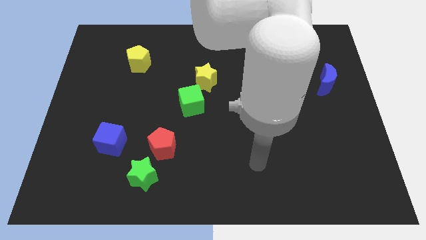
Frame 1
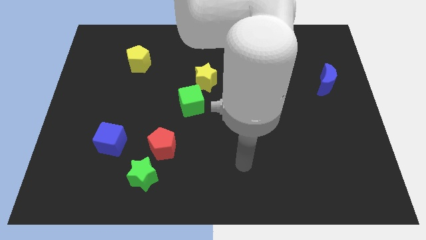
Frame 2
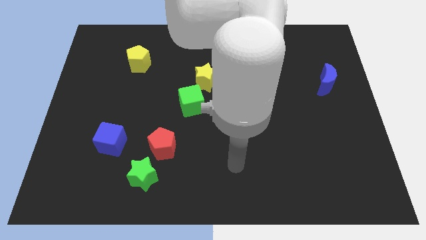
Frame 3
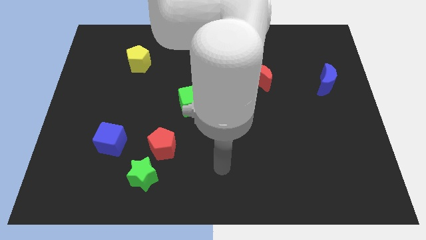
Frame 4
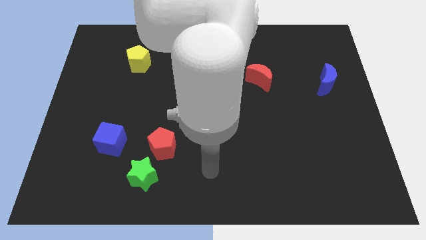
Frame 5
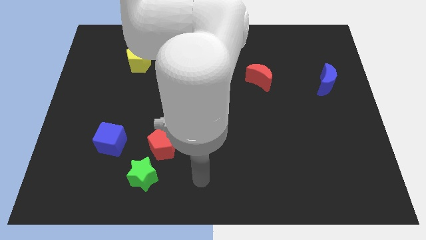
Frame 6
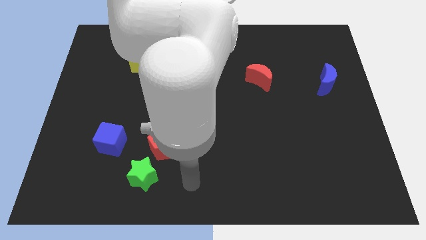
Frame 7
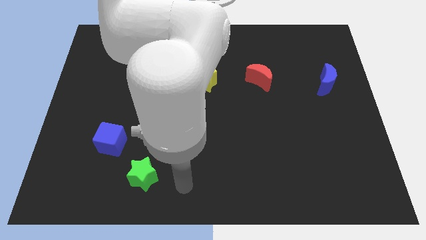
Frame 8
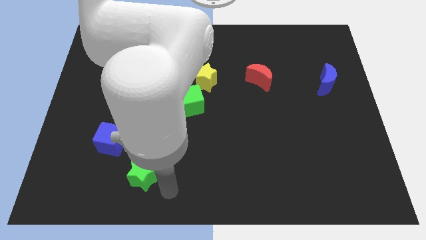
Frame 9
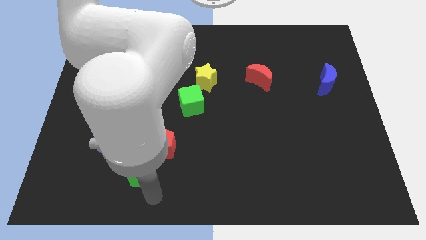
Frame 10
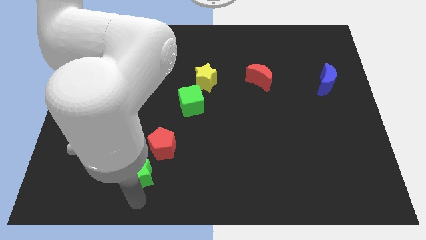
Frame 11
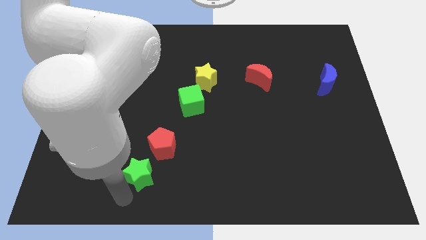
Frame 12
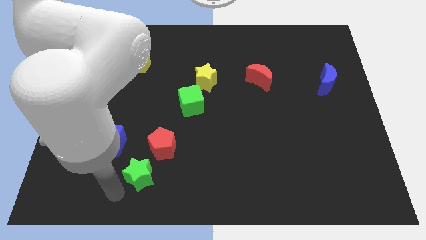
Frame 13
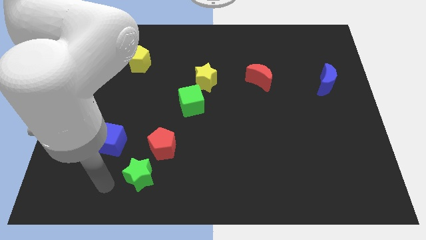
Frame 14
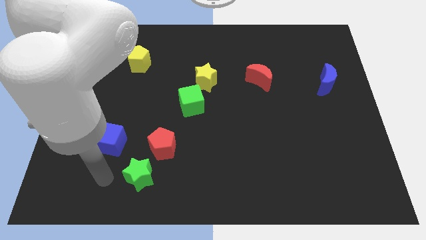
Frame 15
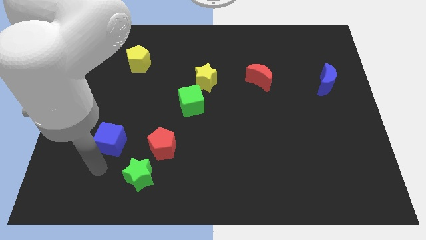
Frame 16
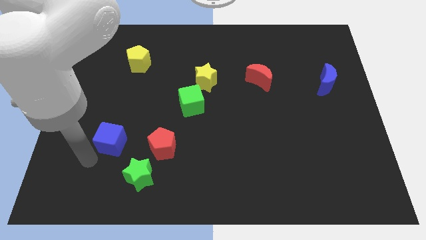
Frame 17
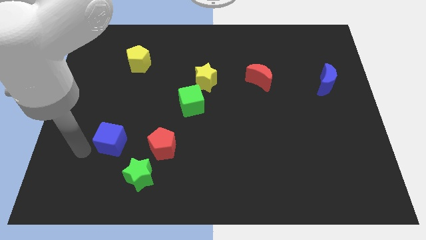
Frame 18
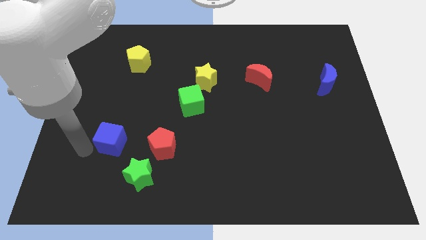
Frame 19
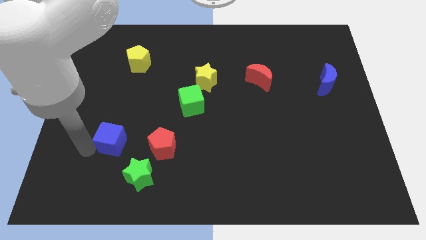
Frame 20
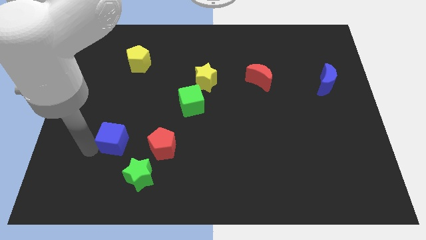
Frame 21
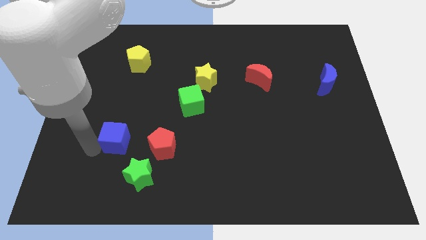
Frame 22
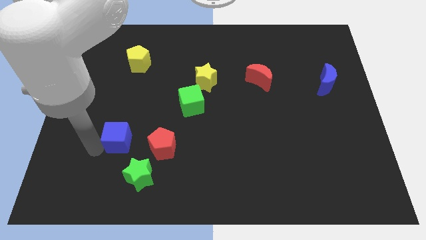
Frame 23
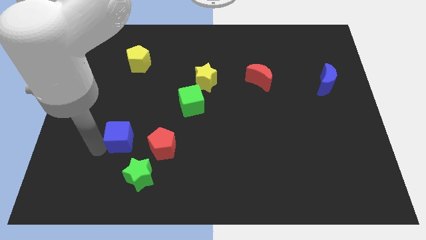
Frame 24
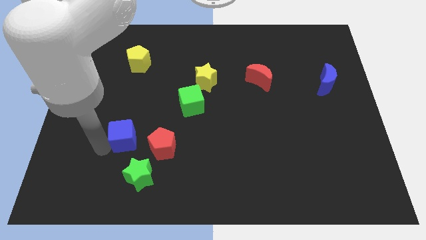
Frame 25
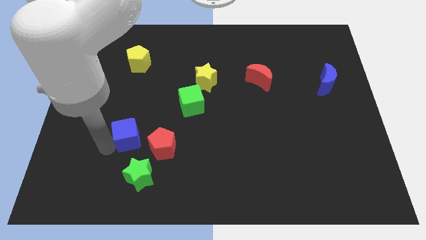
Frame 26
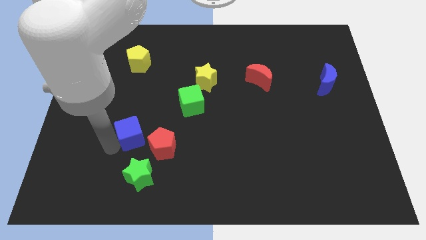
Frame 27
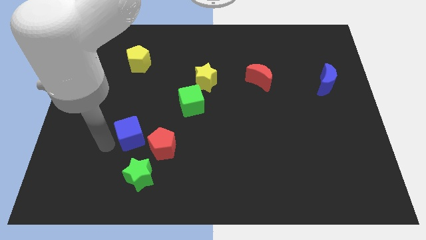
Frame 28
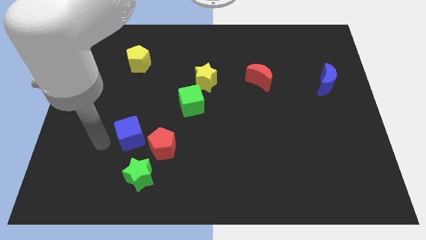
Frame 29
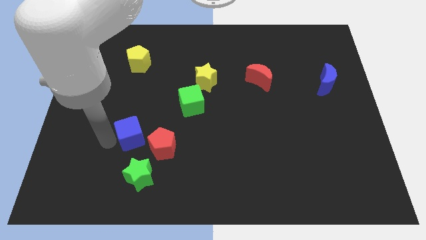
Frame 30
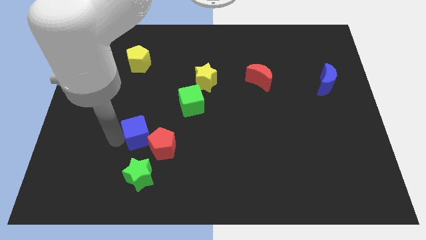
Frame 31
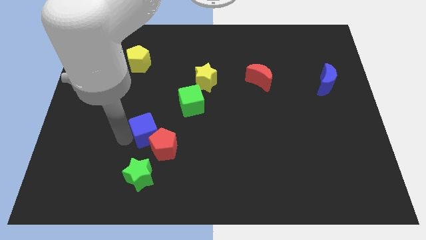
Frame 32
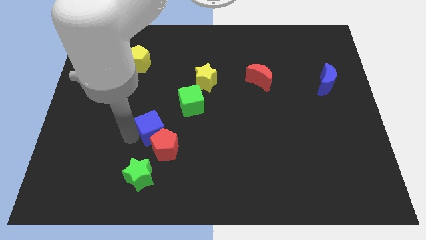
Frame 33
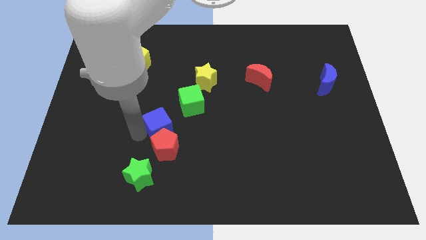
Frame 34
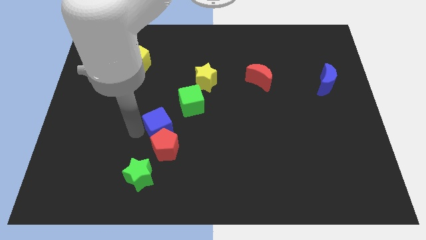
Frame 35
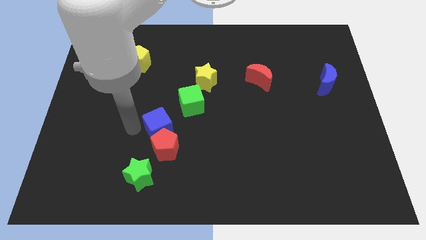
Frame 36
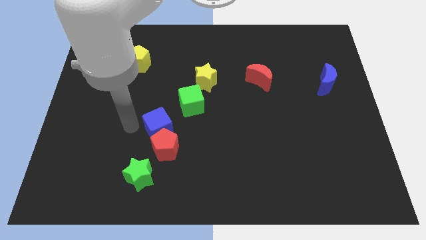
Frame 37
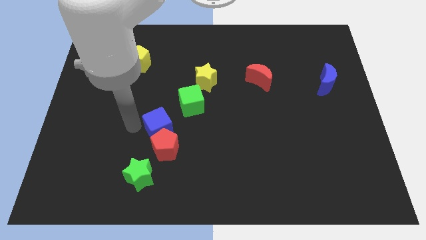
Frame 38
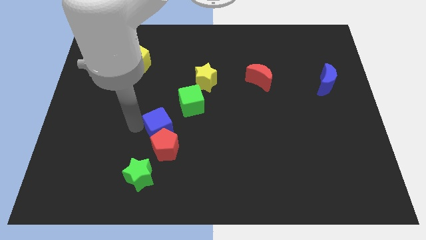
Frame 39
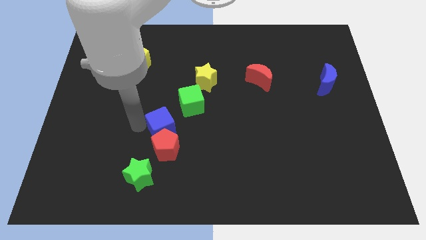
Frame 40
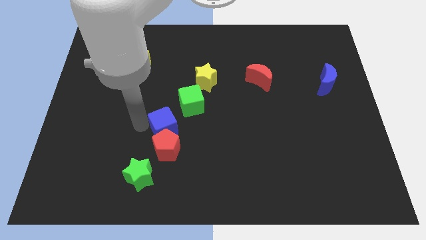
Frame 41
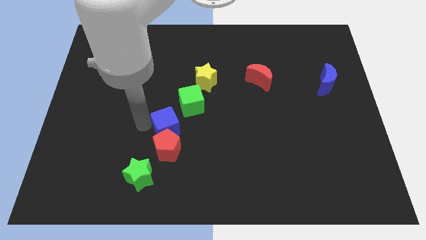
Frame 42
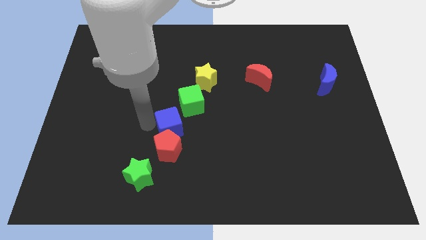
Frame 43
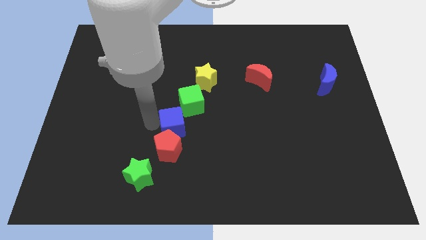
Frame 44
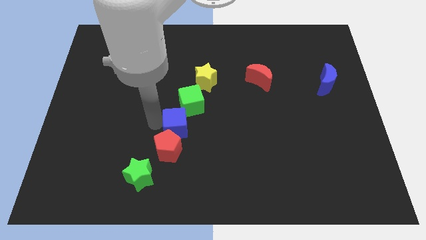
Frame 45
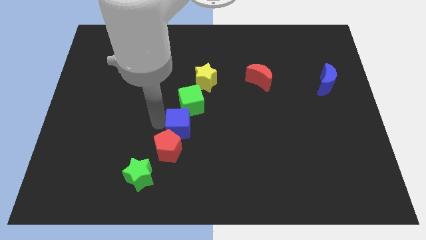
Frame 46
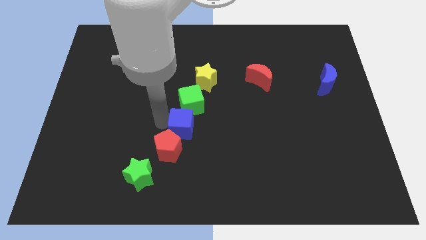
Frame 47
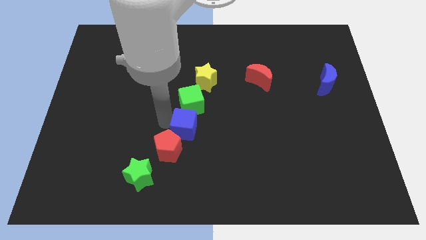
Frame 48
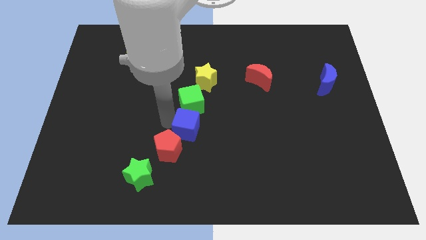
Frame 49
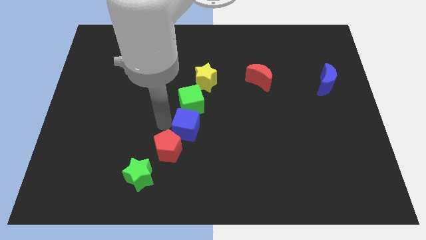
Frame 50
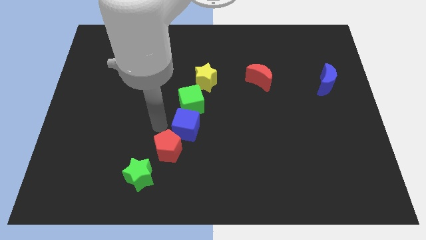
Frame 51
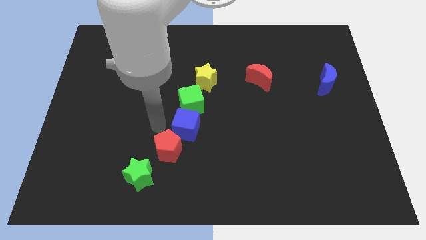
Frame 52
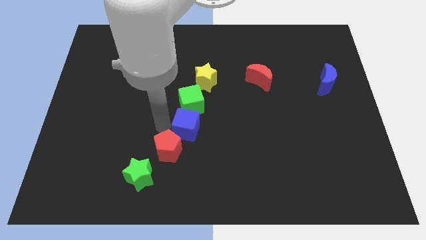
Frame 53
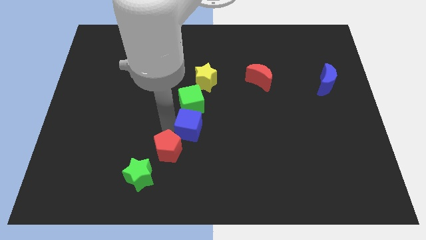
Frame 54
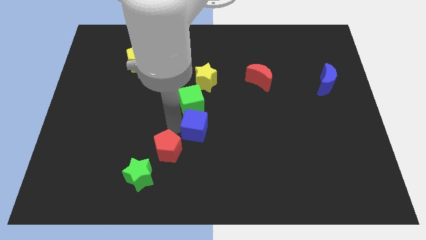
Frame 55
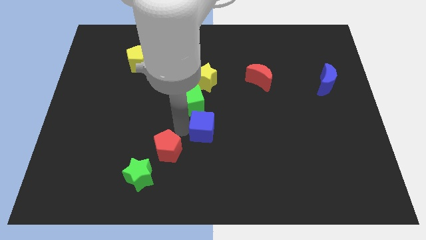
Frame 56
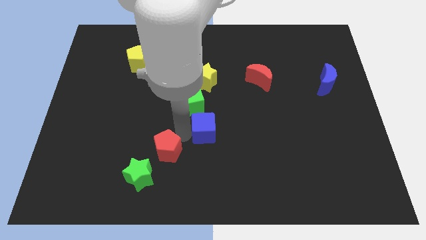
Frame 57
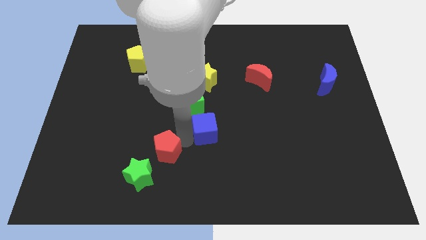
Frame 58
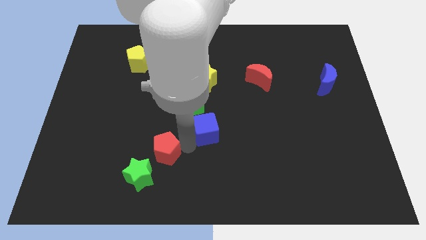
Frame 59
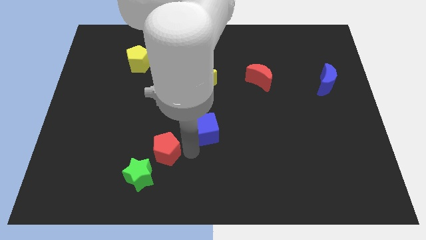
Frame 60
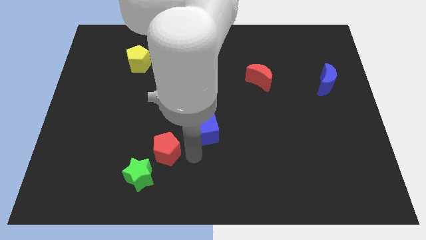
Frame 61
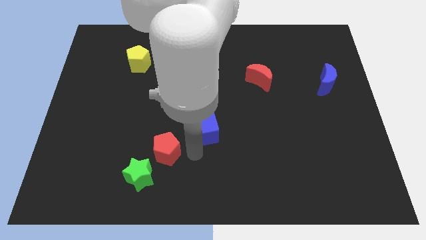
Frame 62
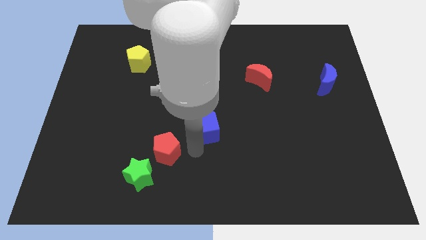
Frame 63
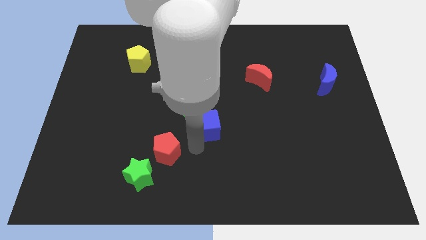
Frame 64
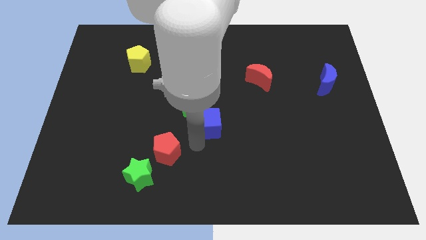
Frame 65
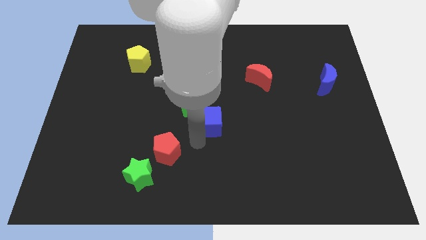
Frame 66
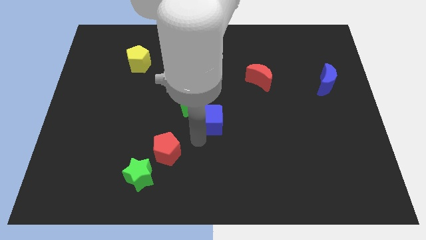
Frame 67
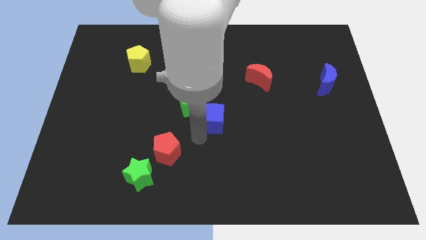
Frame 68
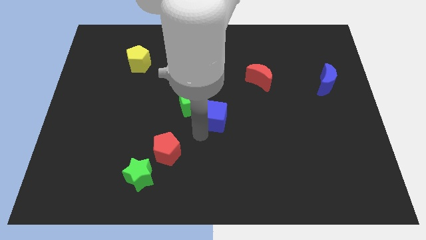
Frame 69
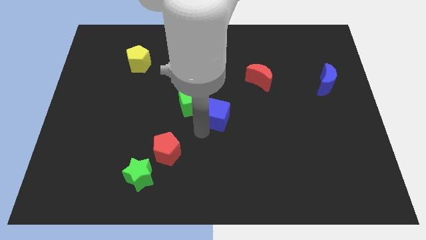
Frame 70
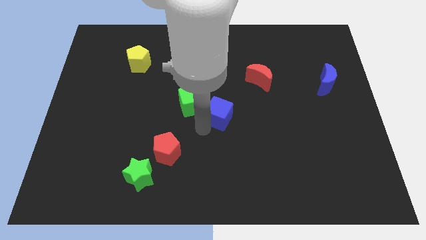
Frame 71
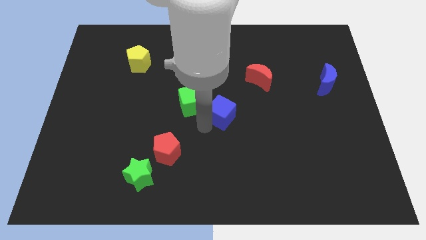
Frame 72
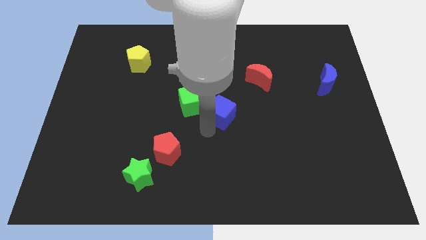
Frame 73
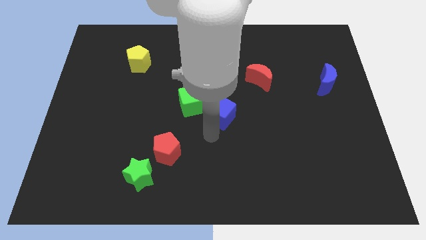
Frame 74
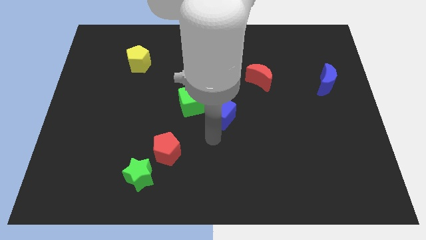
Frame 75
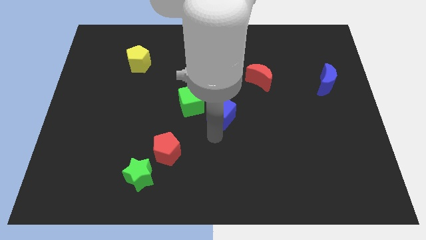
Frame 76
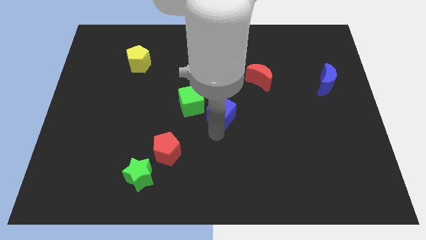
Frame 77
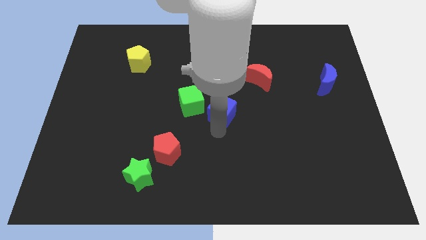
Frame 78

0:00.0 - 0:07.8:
put the blue cube diagonally down and to the right of the yellow star
